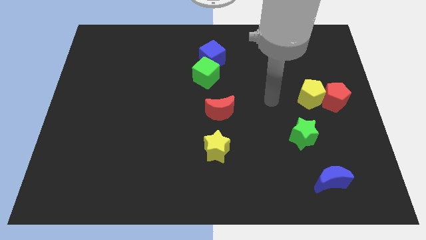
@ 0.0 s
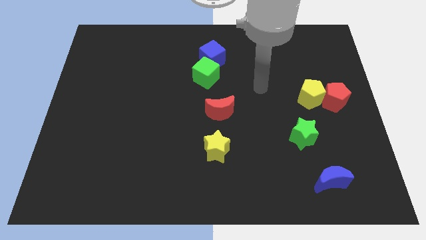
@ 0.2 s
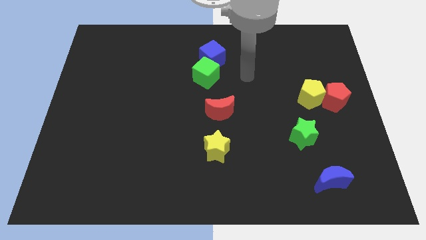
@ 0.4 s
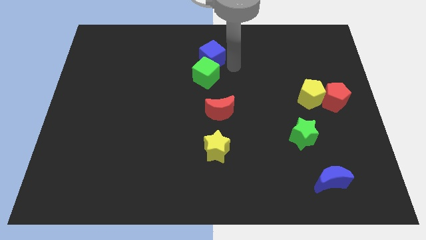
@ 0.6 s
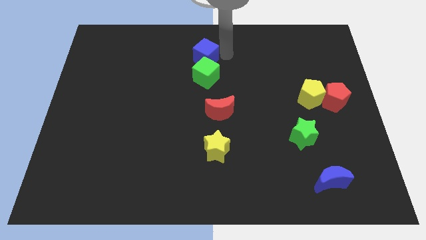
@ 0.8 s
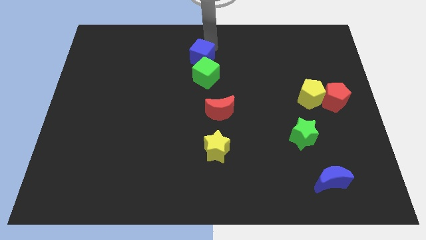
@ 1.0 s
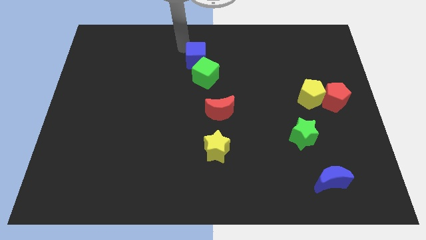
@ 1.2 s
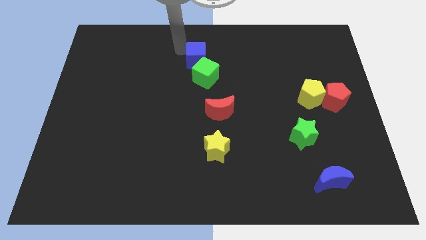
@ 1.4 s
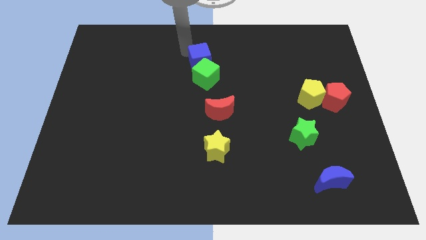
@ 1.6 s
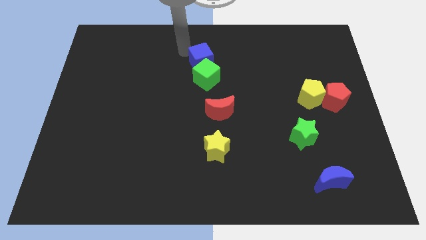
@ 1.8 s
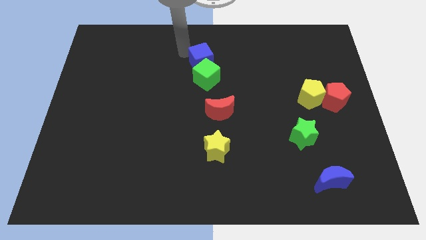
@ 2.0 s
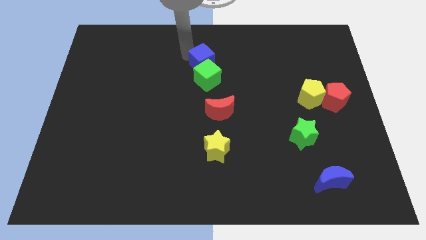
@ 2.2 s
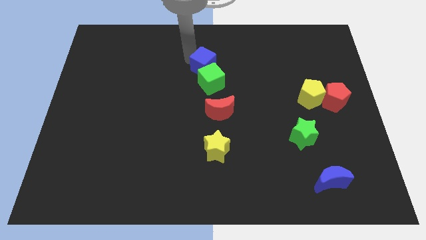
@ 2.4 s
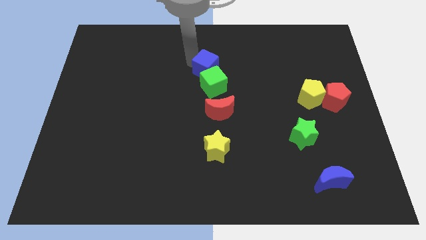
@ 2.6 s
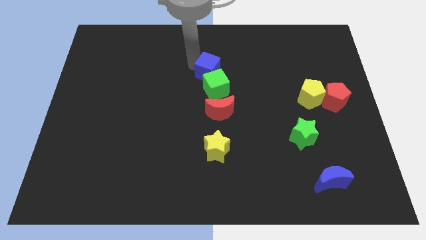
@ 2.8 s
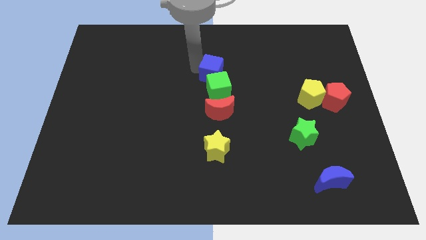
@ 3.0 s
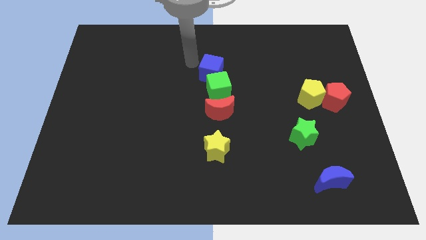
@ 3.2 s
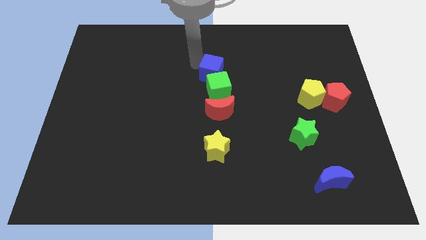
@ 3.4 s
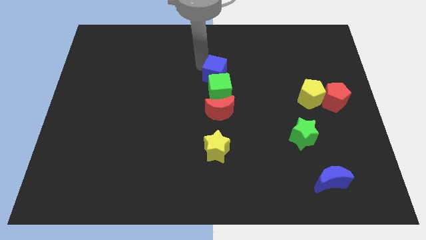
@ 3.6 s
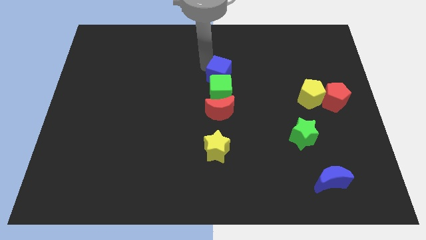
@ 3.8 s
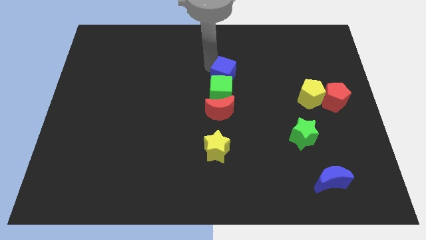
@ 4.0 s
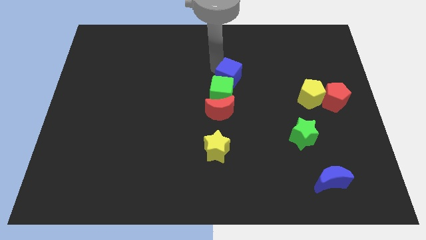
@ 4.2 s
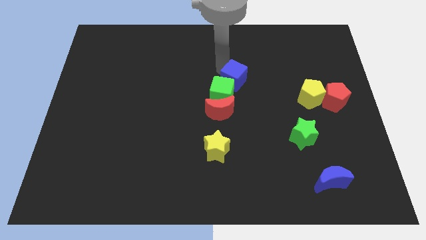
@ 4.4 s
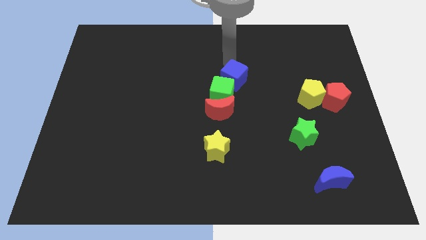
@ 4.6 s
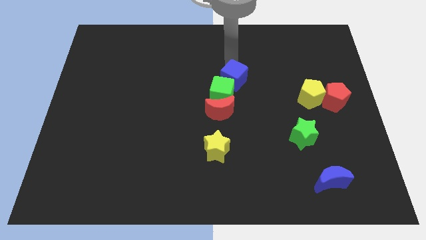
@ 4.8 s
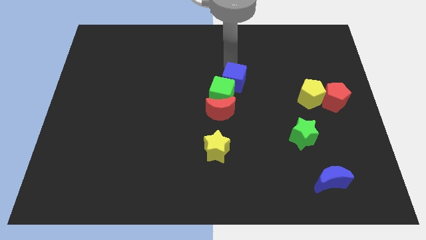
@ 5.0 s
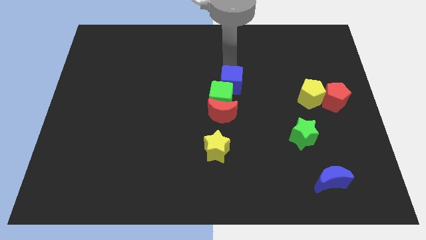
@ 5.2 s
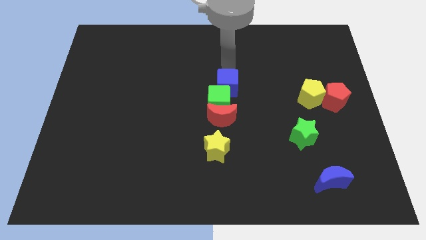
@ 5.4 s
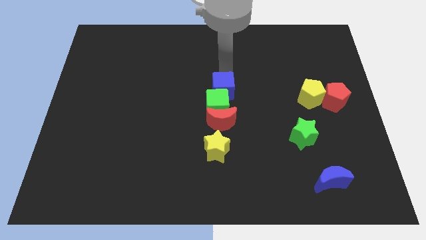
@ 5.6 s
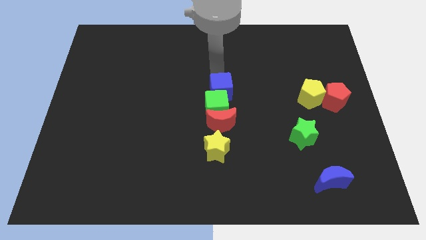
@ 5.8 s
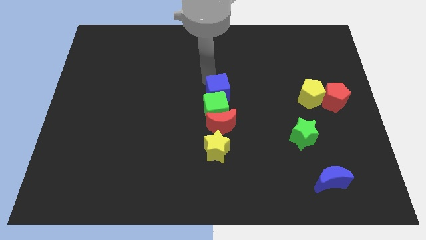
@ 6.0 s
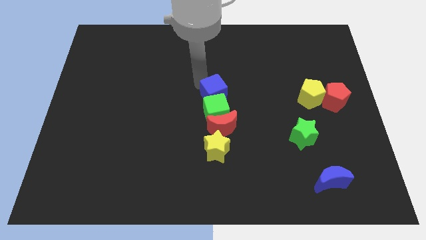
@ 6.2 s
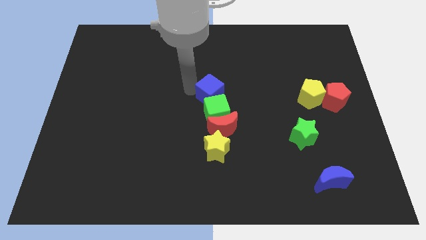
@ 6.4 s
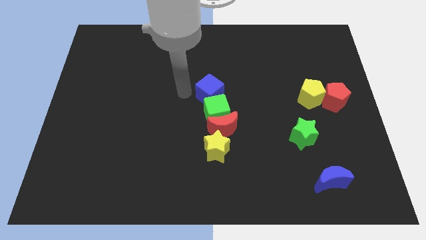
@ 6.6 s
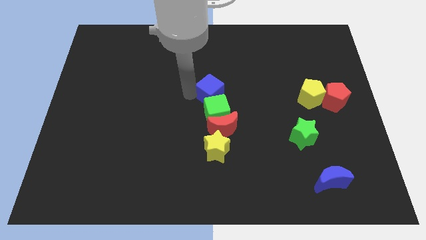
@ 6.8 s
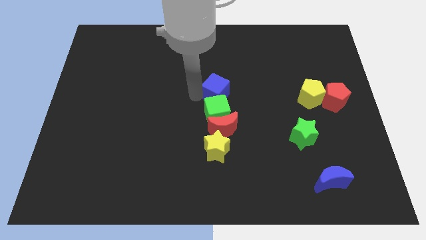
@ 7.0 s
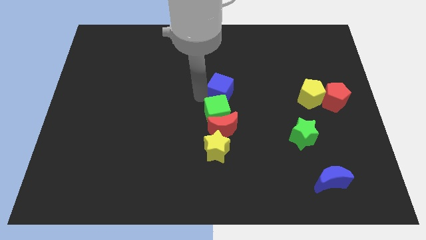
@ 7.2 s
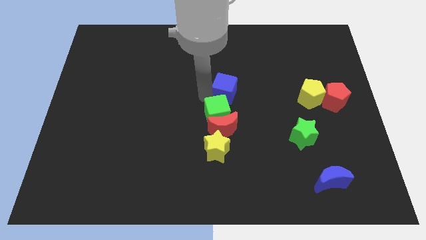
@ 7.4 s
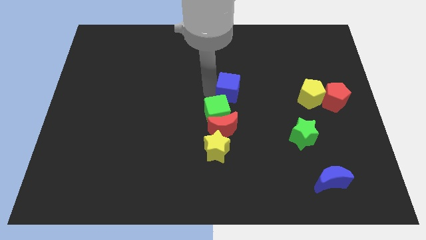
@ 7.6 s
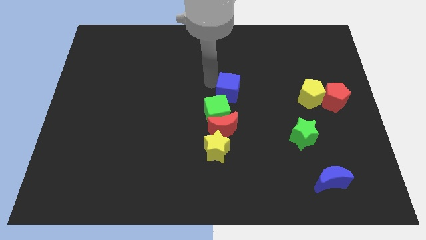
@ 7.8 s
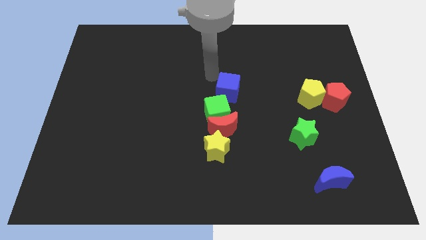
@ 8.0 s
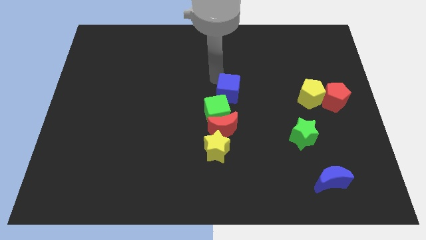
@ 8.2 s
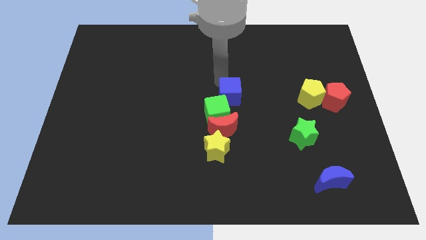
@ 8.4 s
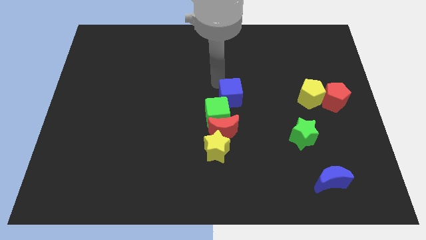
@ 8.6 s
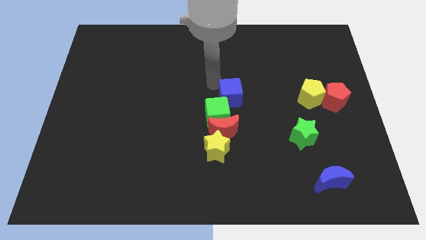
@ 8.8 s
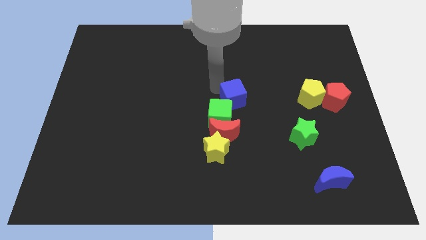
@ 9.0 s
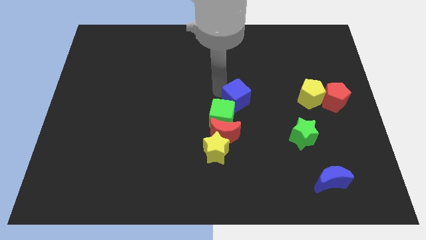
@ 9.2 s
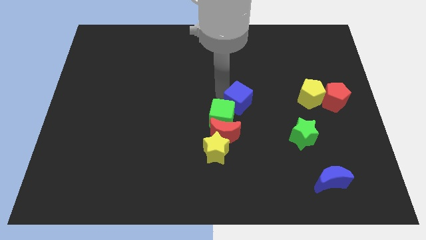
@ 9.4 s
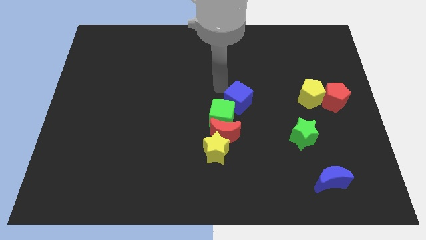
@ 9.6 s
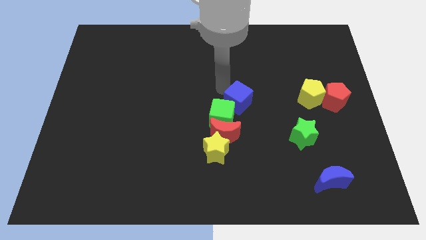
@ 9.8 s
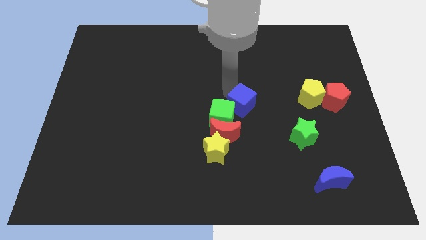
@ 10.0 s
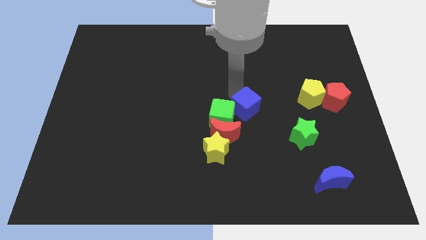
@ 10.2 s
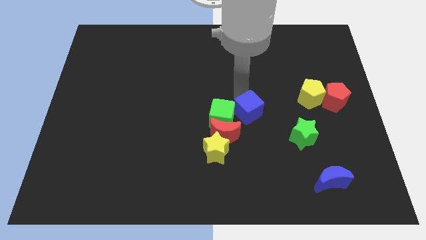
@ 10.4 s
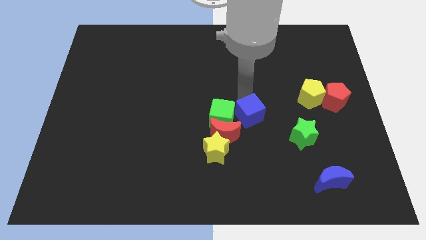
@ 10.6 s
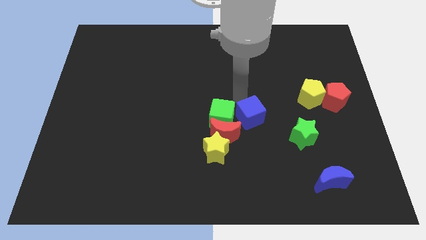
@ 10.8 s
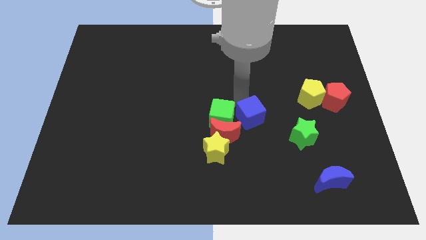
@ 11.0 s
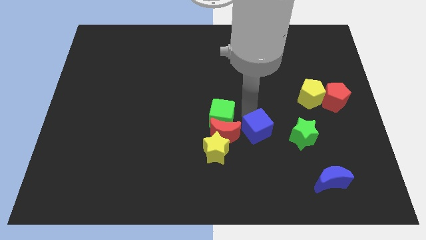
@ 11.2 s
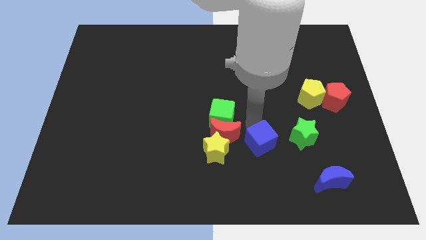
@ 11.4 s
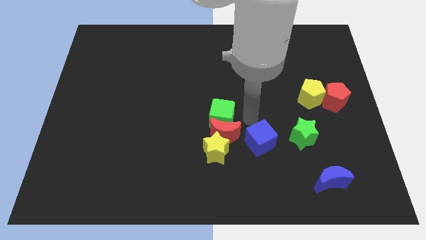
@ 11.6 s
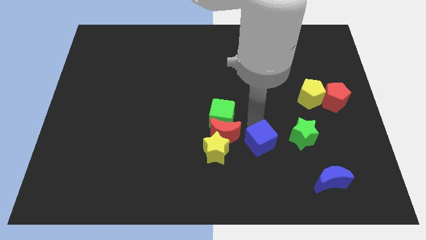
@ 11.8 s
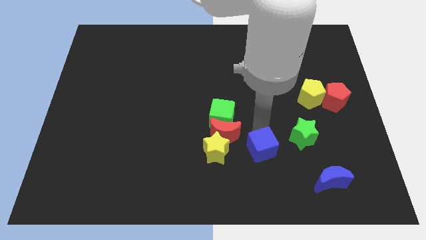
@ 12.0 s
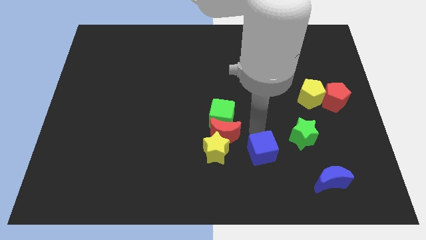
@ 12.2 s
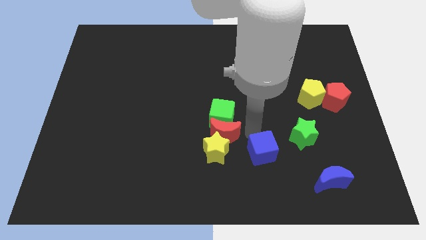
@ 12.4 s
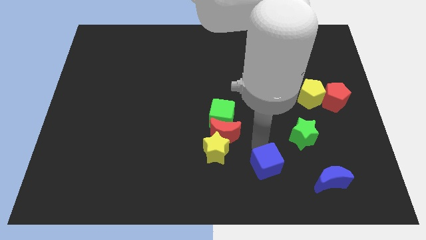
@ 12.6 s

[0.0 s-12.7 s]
push the blue cube to the left of the blue moon

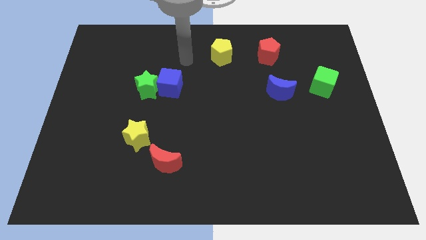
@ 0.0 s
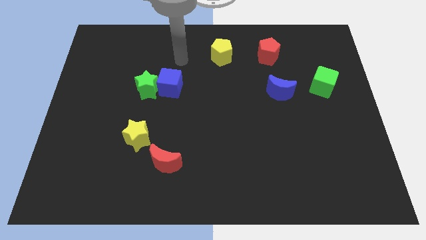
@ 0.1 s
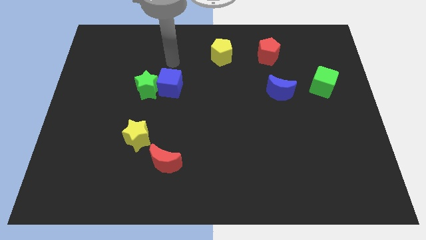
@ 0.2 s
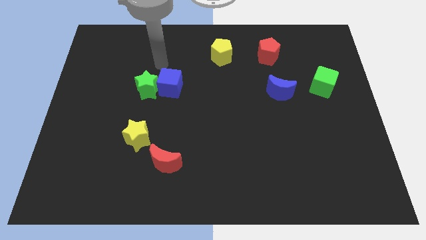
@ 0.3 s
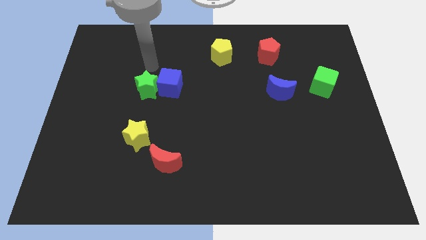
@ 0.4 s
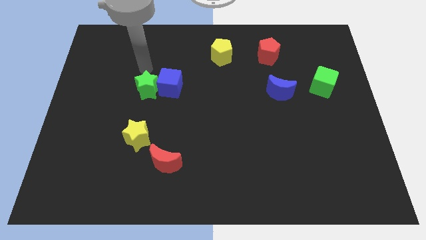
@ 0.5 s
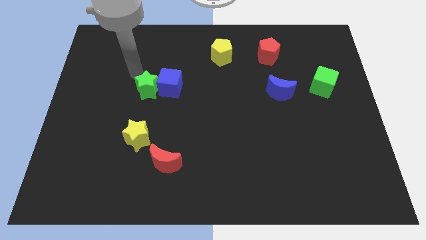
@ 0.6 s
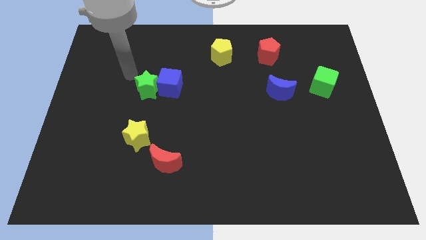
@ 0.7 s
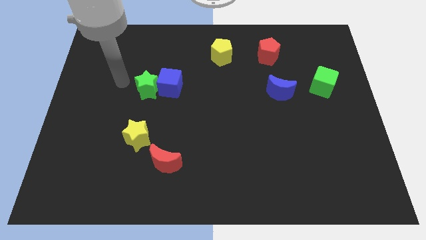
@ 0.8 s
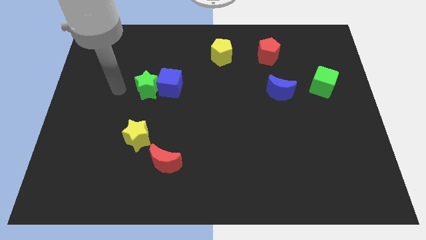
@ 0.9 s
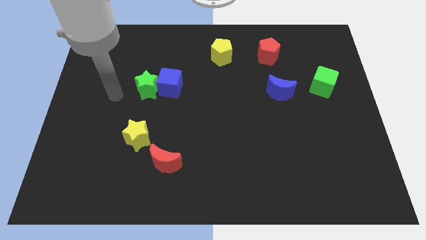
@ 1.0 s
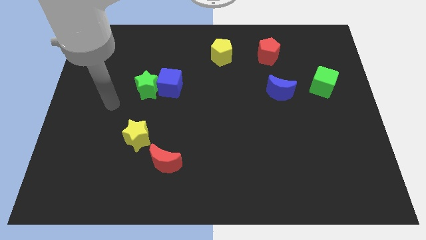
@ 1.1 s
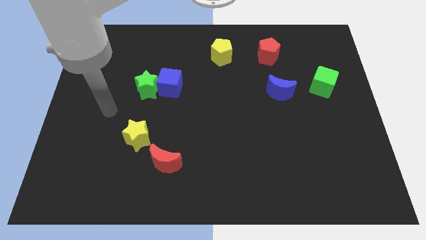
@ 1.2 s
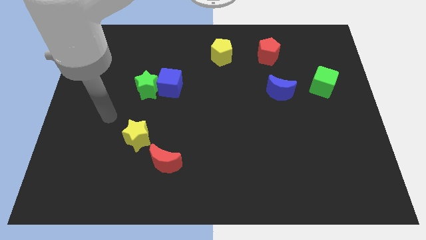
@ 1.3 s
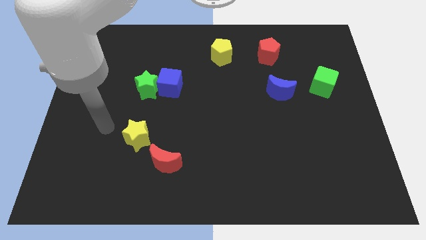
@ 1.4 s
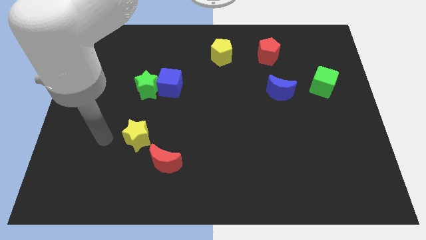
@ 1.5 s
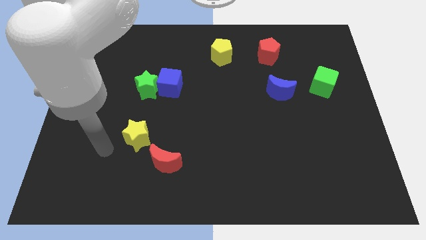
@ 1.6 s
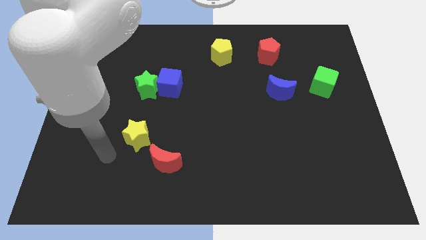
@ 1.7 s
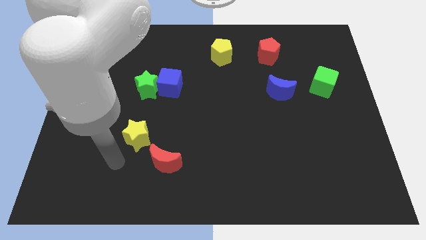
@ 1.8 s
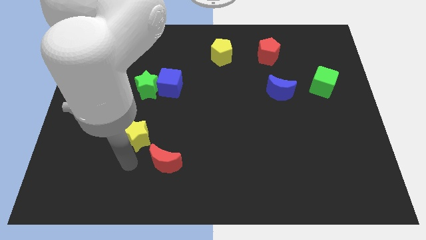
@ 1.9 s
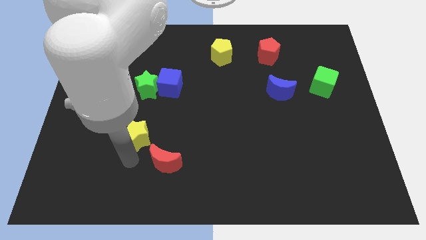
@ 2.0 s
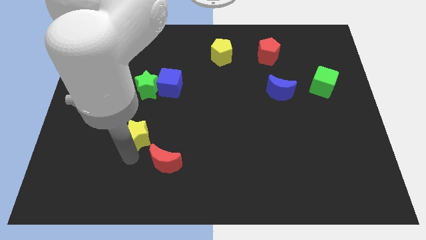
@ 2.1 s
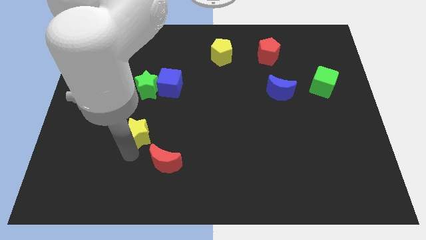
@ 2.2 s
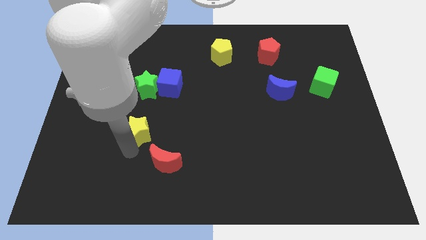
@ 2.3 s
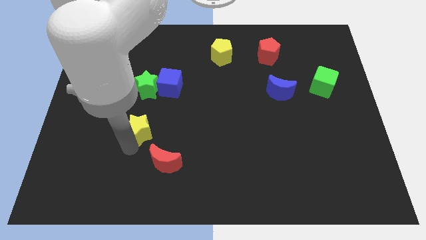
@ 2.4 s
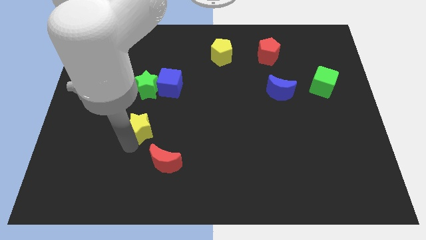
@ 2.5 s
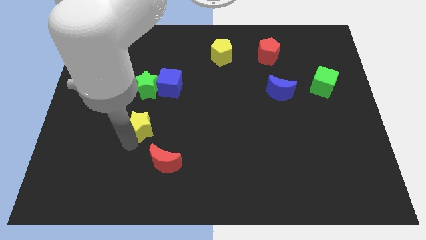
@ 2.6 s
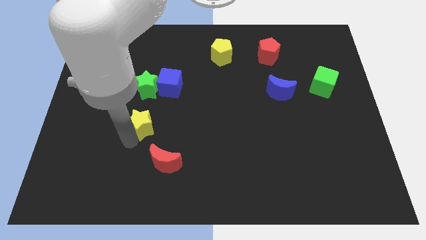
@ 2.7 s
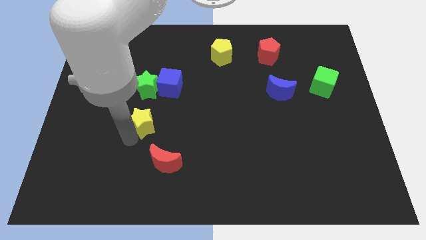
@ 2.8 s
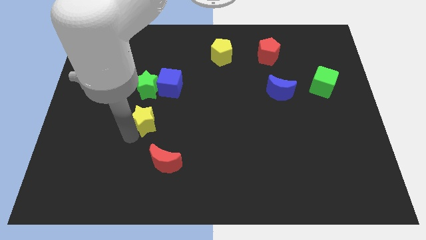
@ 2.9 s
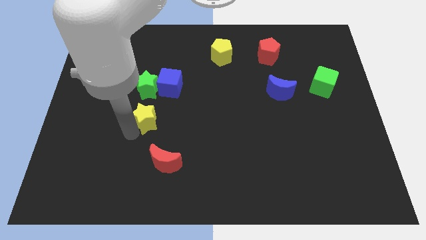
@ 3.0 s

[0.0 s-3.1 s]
put the yellow star to the bottom left of the blue cube
